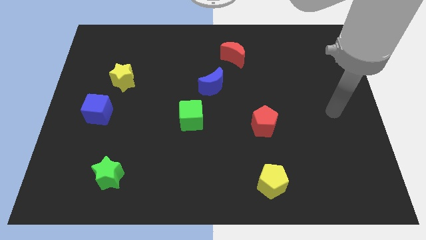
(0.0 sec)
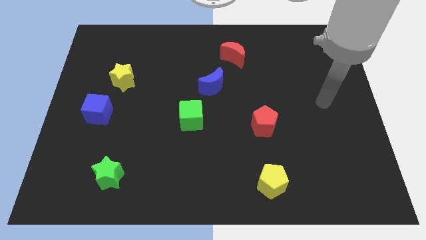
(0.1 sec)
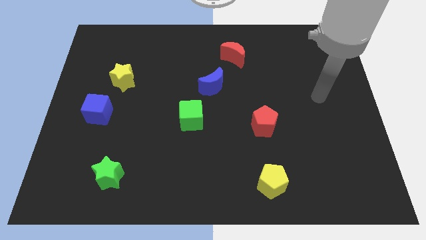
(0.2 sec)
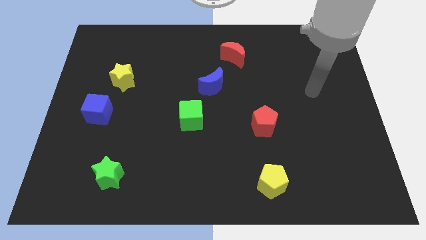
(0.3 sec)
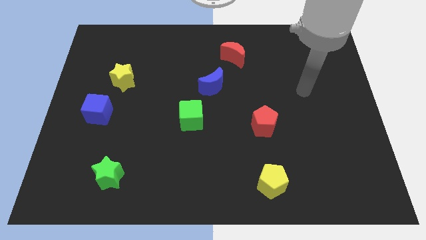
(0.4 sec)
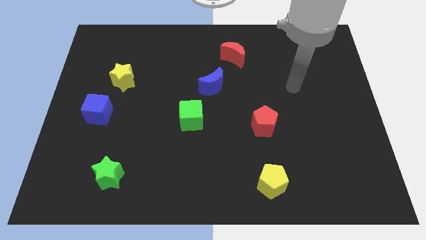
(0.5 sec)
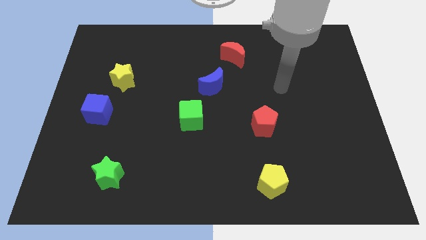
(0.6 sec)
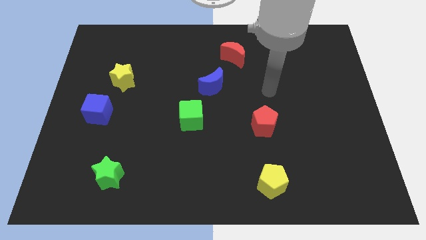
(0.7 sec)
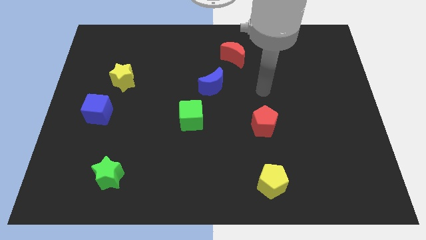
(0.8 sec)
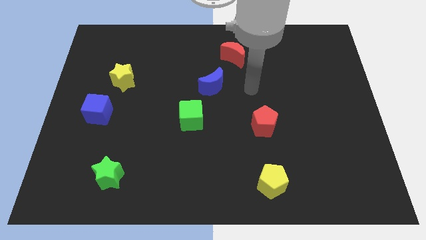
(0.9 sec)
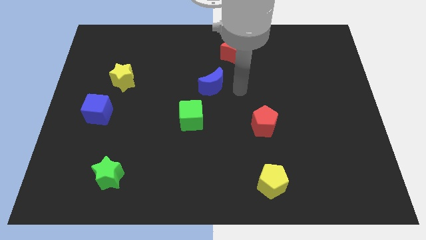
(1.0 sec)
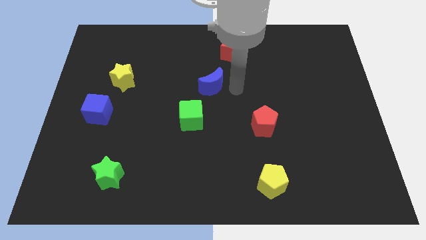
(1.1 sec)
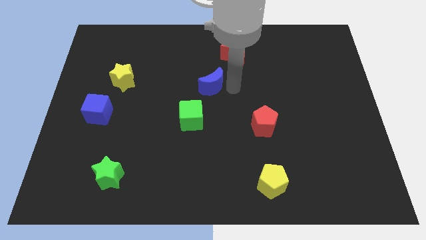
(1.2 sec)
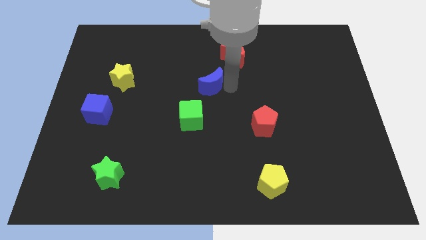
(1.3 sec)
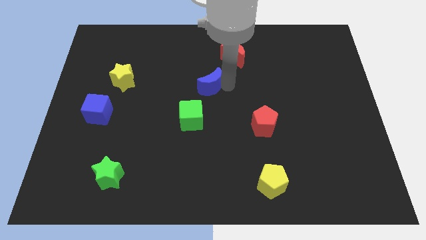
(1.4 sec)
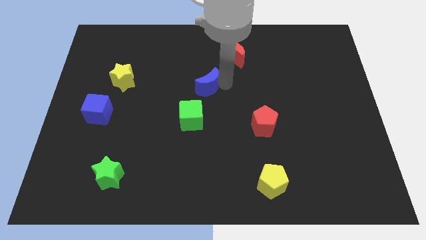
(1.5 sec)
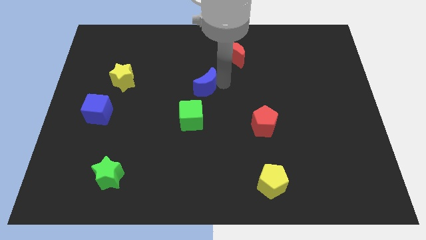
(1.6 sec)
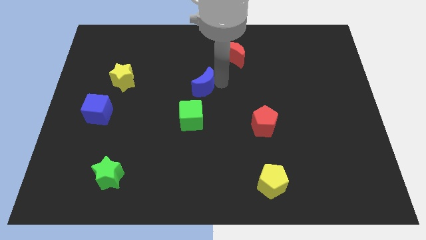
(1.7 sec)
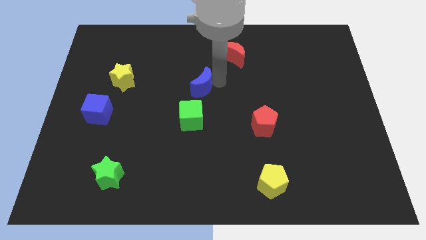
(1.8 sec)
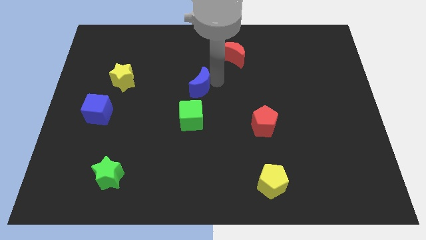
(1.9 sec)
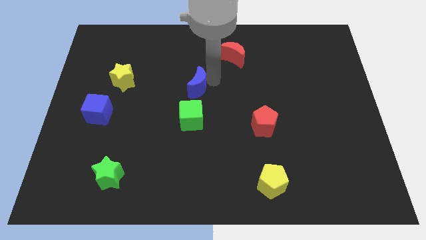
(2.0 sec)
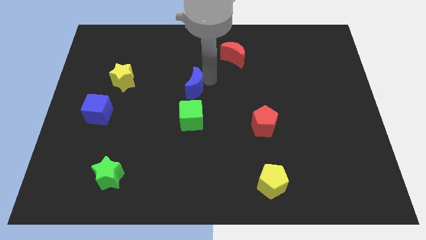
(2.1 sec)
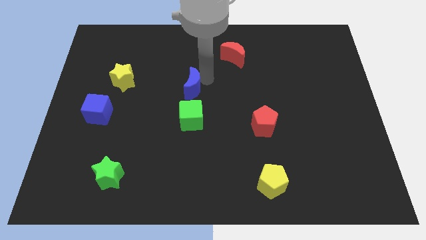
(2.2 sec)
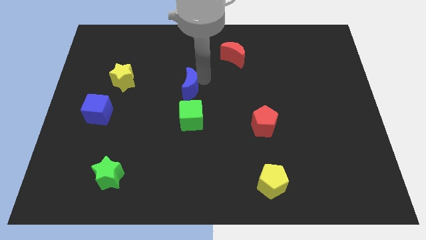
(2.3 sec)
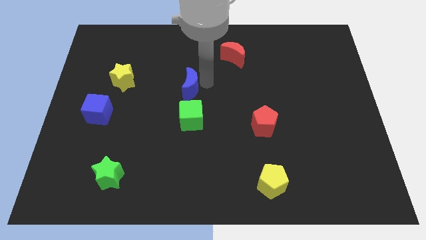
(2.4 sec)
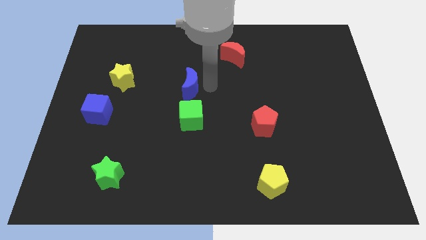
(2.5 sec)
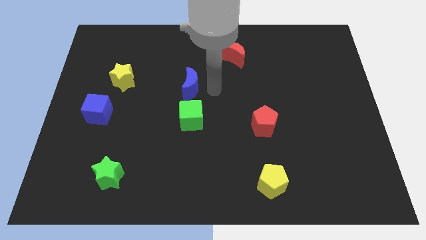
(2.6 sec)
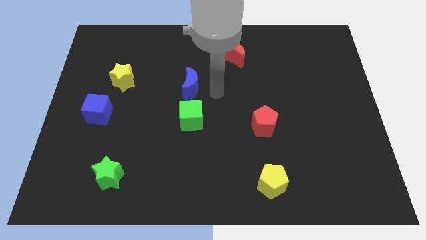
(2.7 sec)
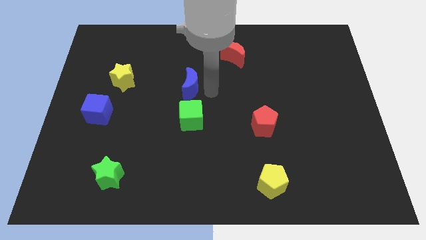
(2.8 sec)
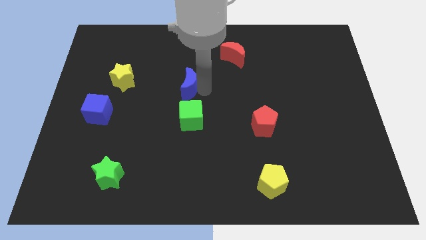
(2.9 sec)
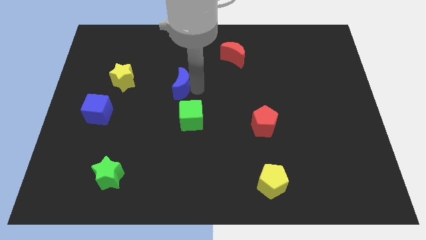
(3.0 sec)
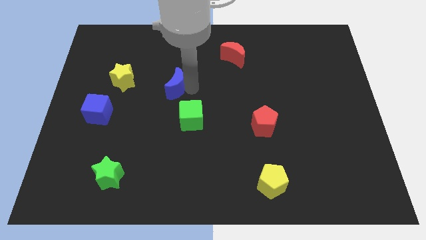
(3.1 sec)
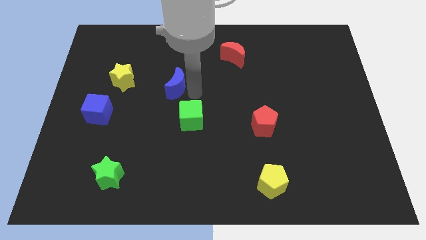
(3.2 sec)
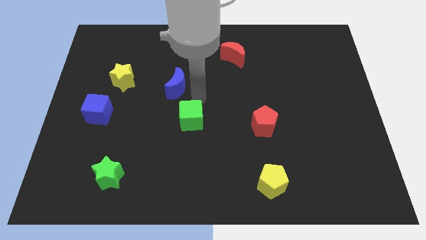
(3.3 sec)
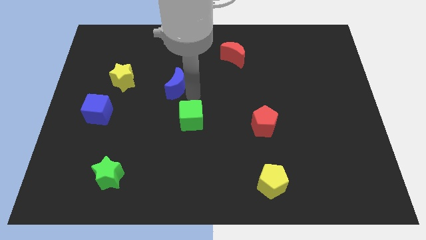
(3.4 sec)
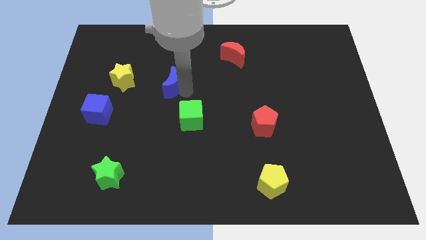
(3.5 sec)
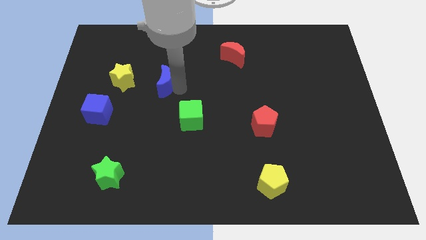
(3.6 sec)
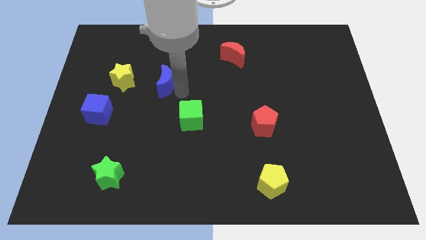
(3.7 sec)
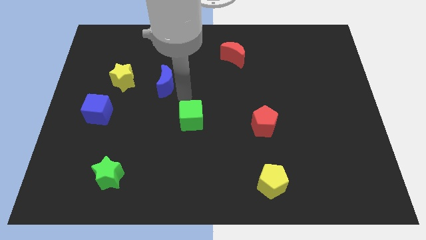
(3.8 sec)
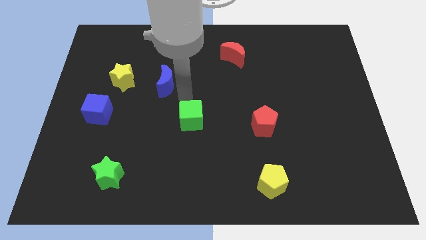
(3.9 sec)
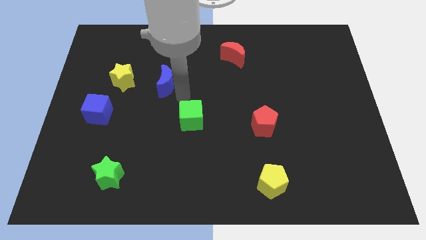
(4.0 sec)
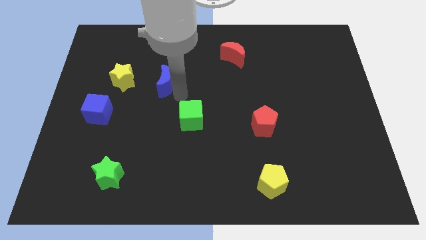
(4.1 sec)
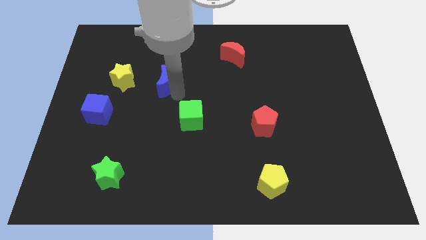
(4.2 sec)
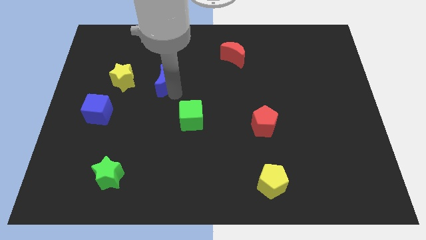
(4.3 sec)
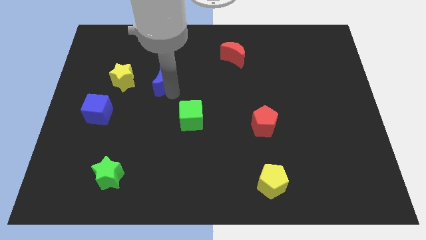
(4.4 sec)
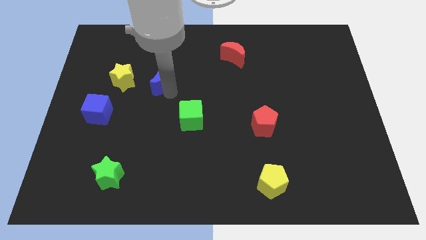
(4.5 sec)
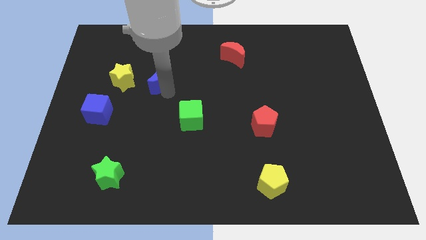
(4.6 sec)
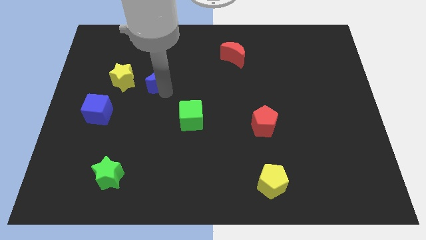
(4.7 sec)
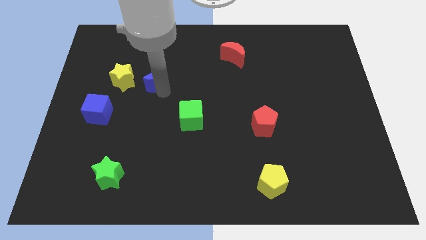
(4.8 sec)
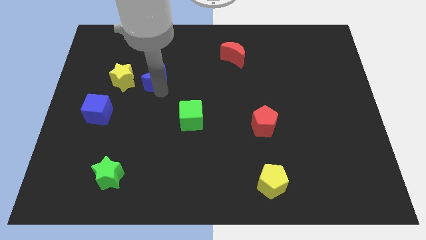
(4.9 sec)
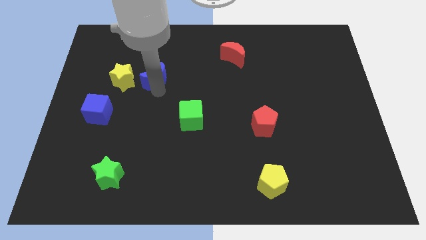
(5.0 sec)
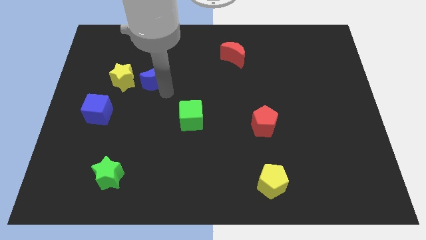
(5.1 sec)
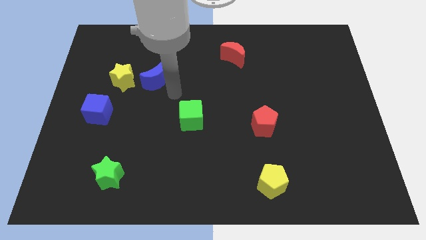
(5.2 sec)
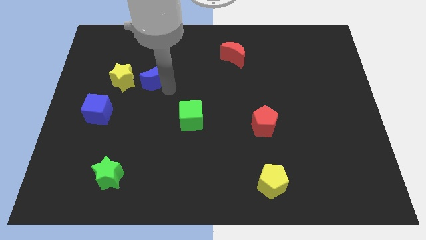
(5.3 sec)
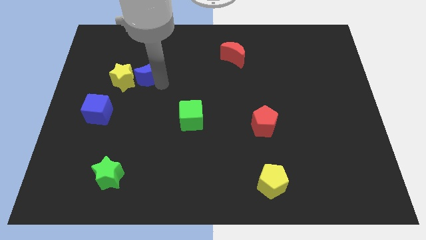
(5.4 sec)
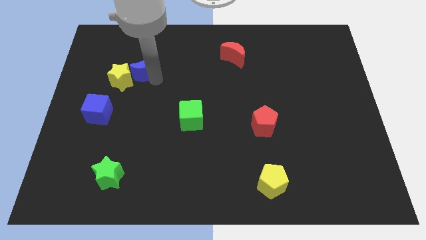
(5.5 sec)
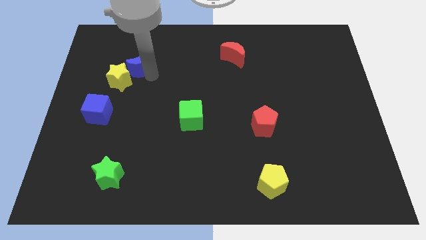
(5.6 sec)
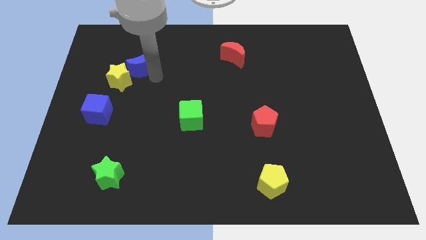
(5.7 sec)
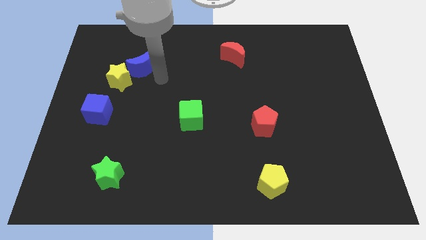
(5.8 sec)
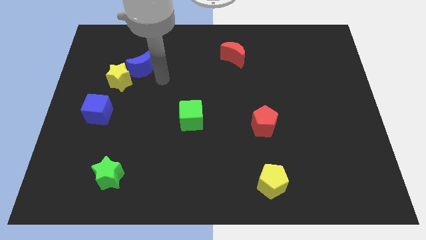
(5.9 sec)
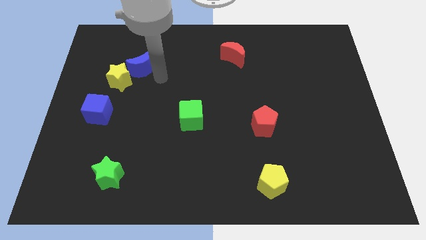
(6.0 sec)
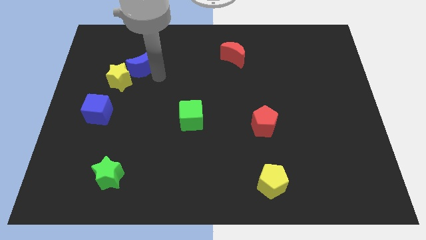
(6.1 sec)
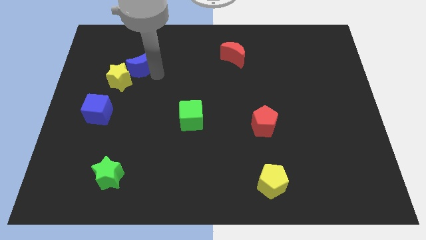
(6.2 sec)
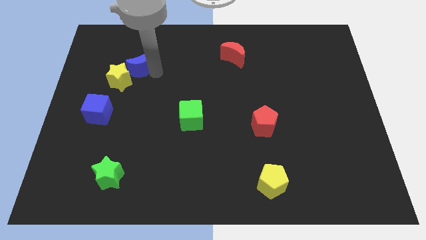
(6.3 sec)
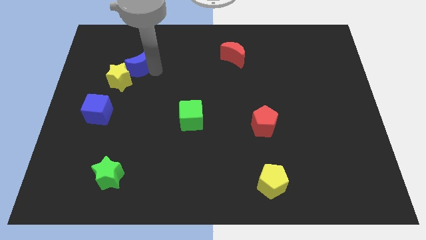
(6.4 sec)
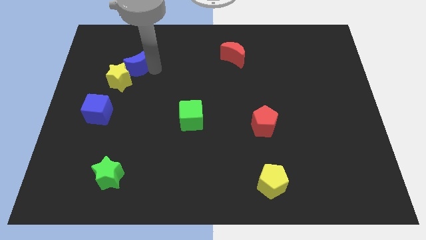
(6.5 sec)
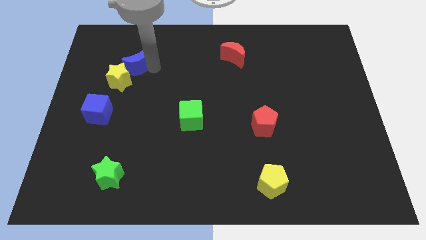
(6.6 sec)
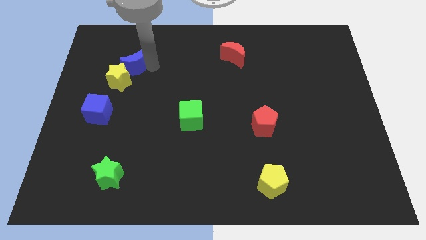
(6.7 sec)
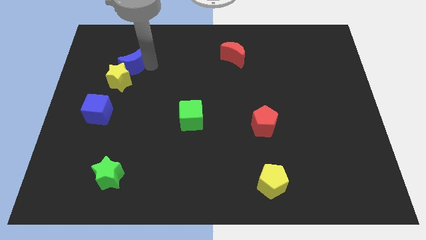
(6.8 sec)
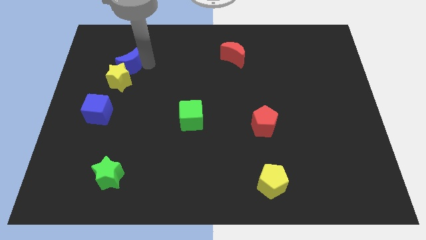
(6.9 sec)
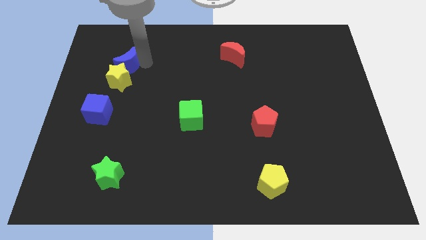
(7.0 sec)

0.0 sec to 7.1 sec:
push the blue moon to the top left side of the yellow star

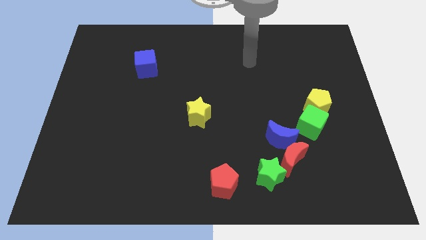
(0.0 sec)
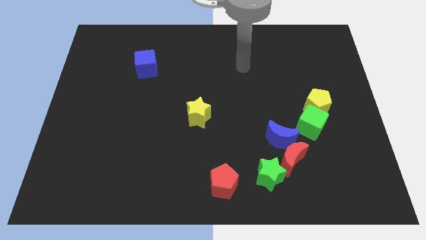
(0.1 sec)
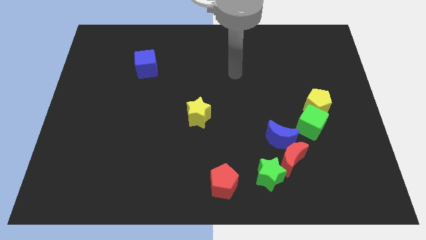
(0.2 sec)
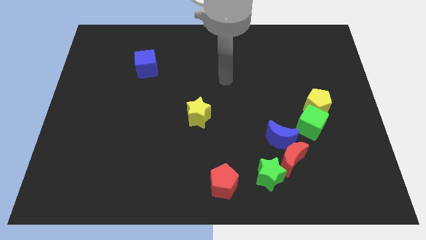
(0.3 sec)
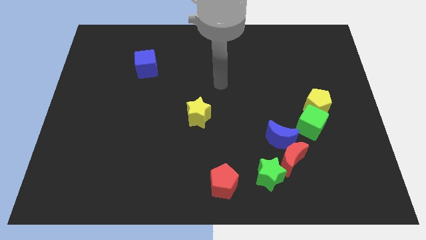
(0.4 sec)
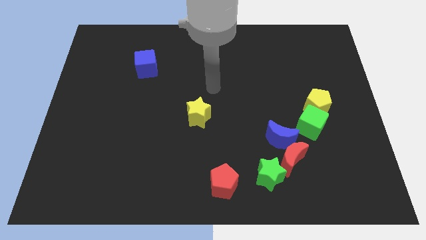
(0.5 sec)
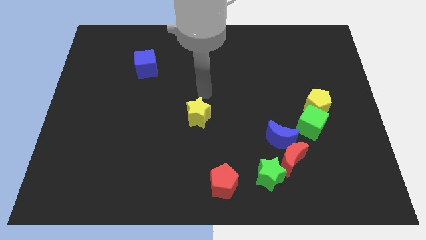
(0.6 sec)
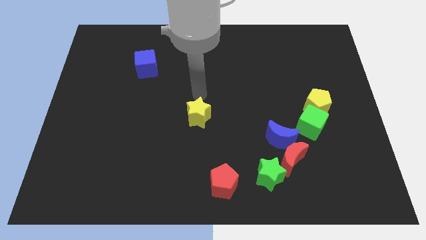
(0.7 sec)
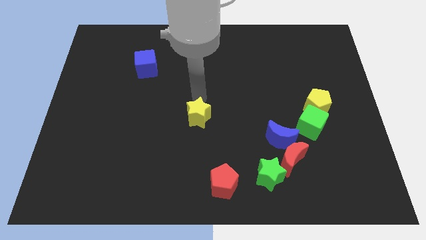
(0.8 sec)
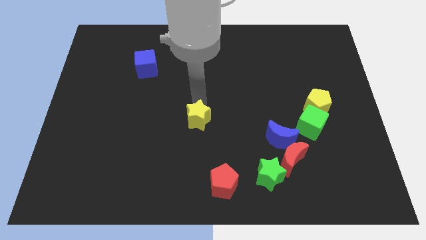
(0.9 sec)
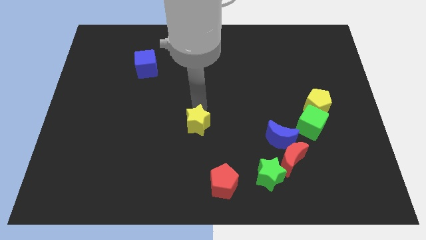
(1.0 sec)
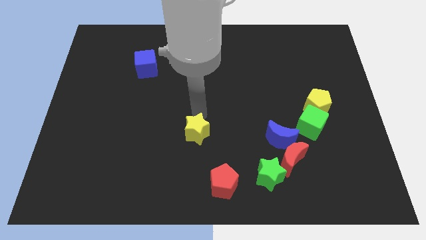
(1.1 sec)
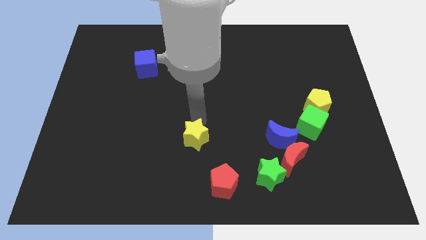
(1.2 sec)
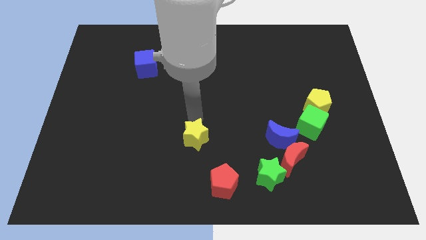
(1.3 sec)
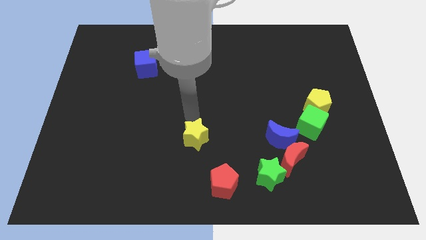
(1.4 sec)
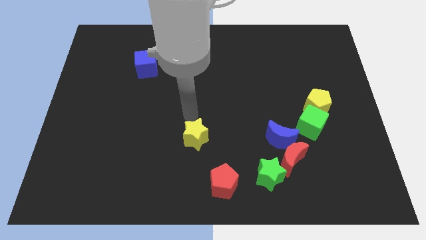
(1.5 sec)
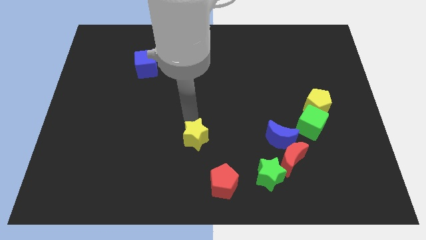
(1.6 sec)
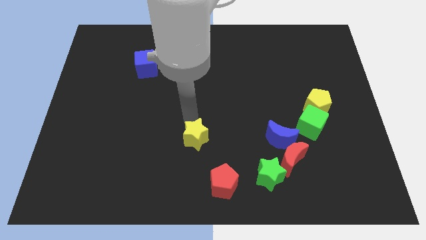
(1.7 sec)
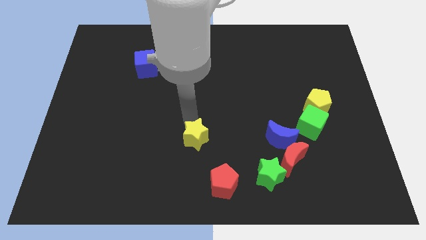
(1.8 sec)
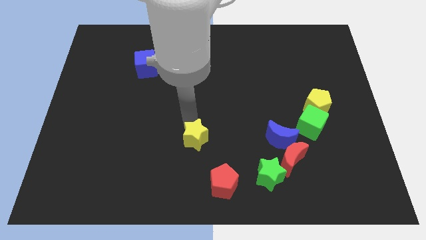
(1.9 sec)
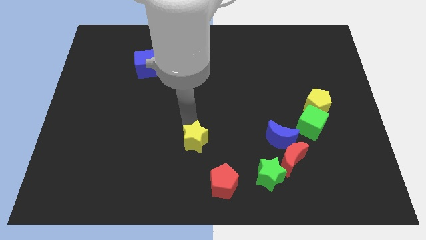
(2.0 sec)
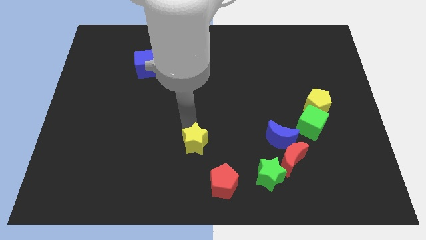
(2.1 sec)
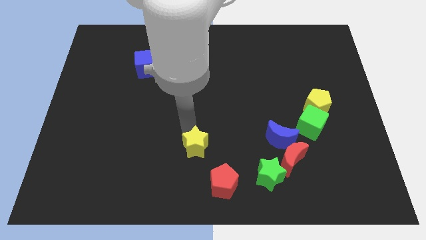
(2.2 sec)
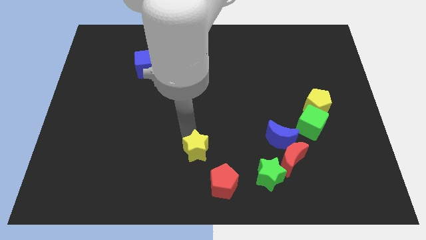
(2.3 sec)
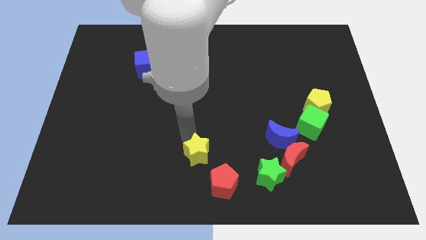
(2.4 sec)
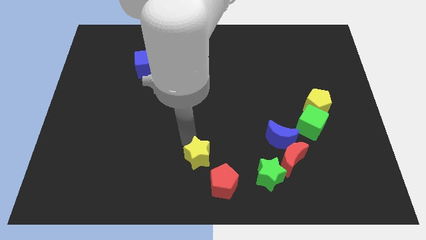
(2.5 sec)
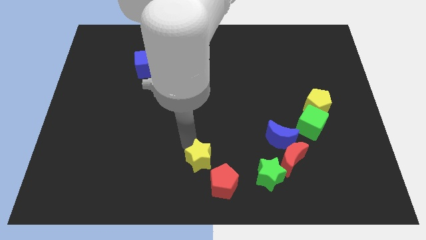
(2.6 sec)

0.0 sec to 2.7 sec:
push the yellow star just left of the green star
